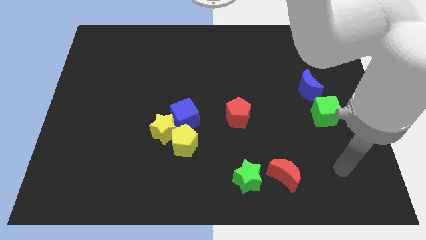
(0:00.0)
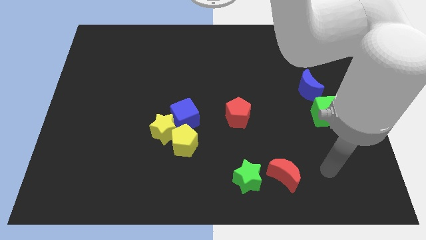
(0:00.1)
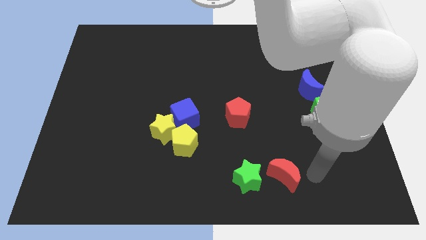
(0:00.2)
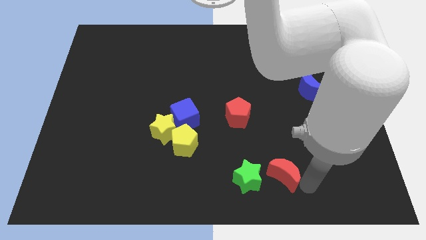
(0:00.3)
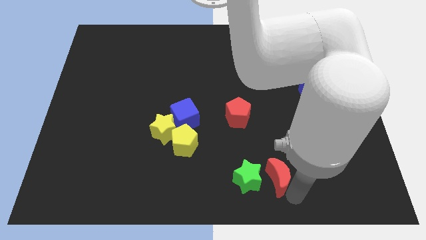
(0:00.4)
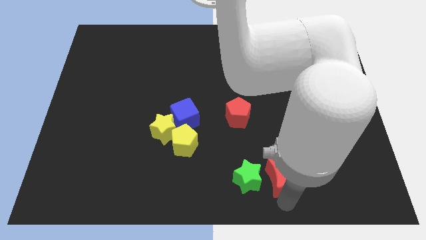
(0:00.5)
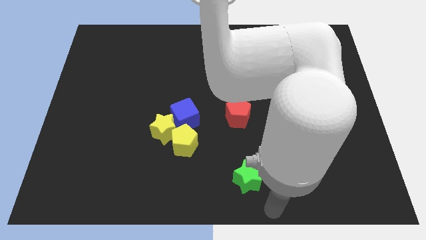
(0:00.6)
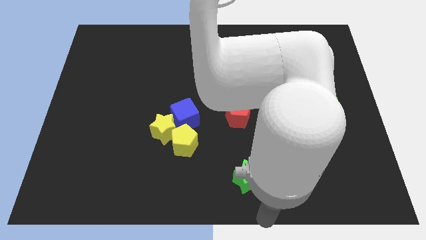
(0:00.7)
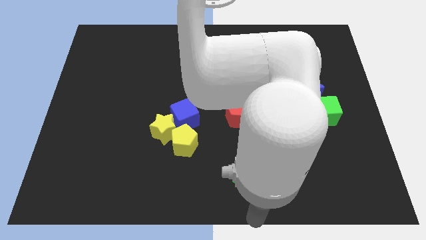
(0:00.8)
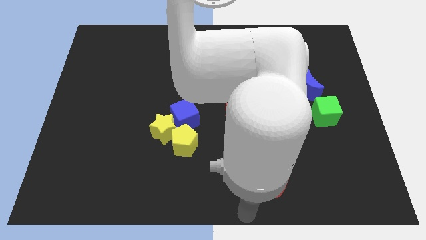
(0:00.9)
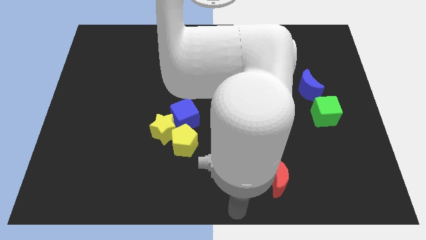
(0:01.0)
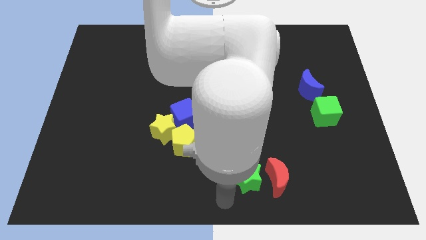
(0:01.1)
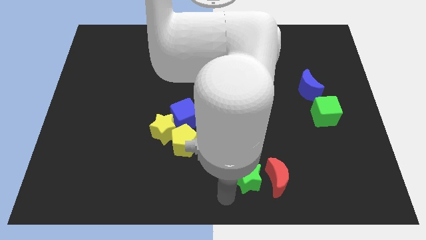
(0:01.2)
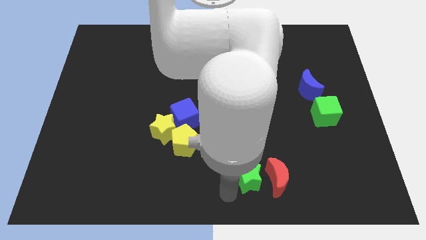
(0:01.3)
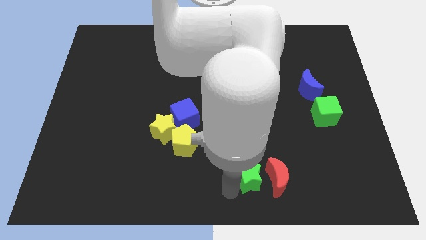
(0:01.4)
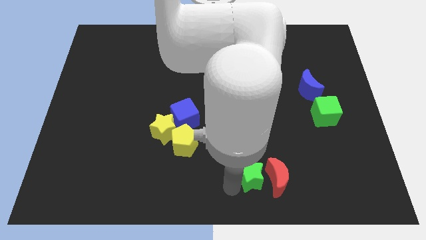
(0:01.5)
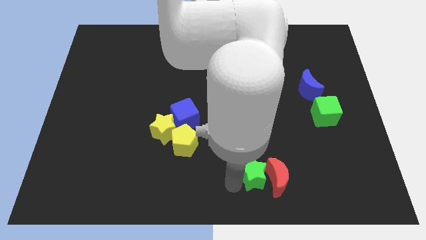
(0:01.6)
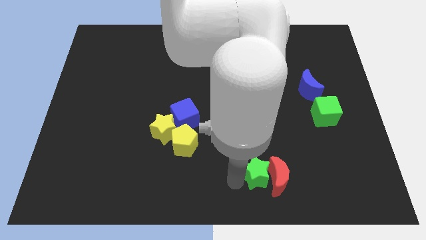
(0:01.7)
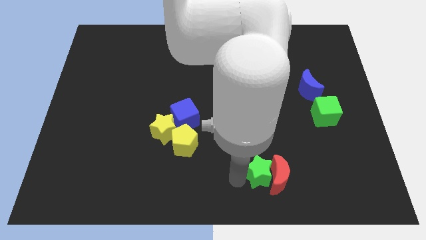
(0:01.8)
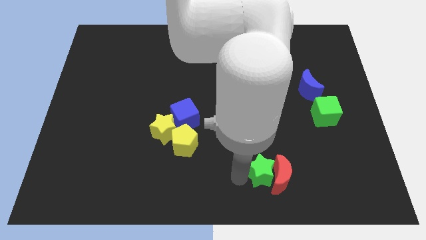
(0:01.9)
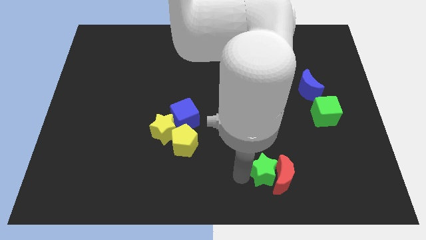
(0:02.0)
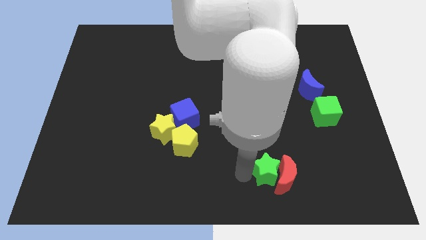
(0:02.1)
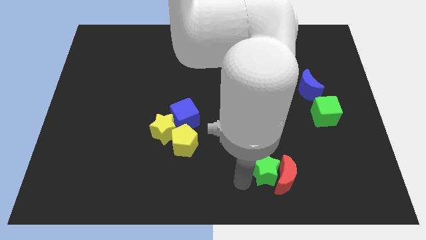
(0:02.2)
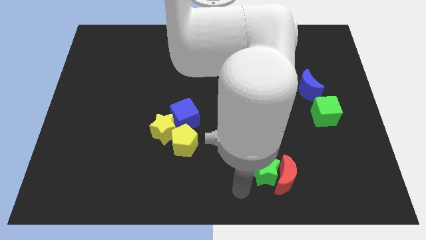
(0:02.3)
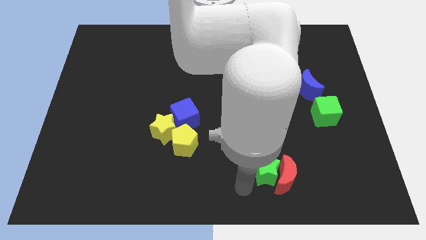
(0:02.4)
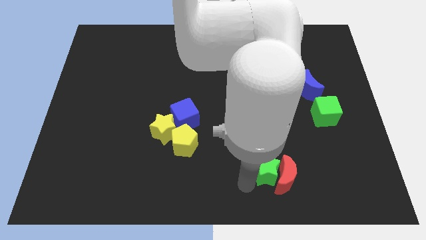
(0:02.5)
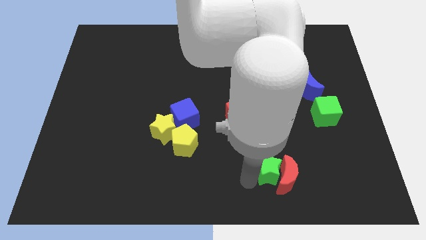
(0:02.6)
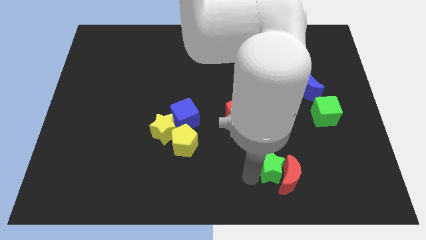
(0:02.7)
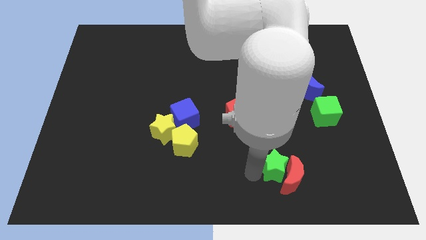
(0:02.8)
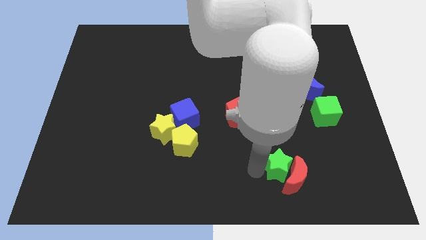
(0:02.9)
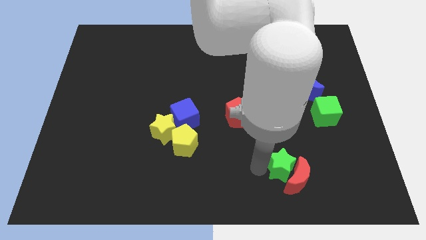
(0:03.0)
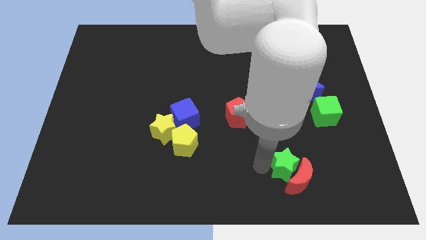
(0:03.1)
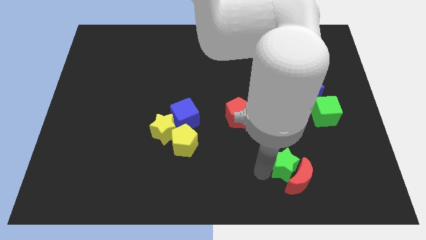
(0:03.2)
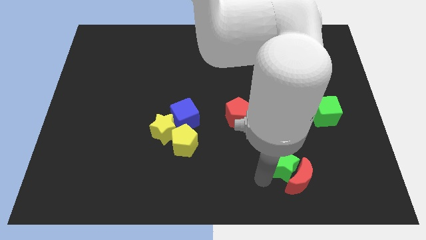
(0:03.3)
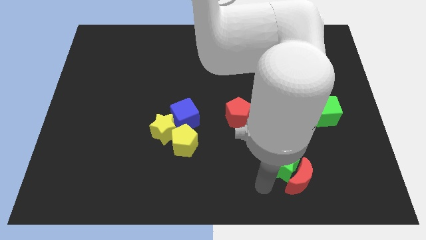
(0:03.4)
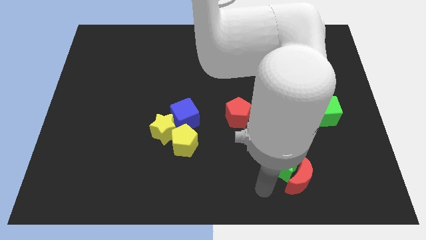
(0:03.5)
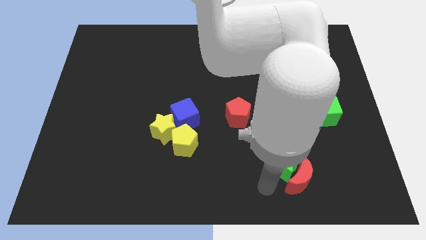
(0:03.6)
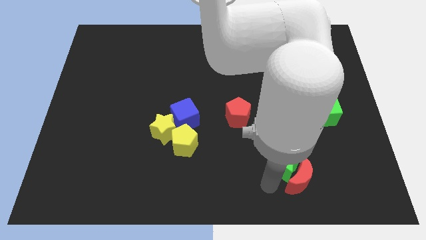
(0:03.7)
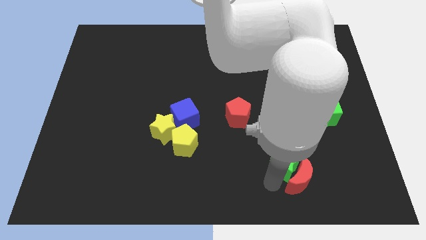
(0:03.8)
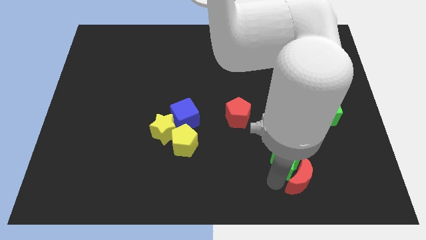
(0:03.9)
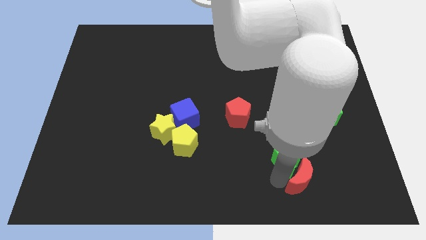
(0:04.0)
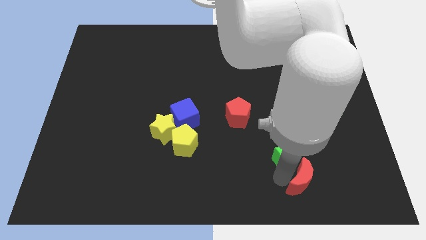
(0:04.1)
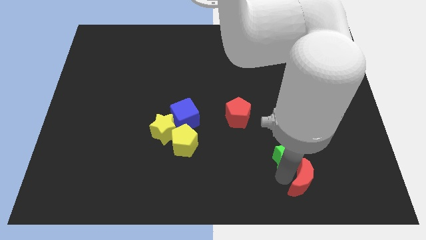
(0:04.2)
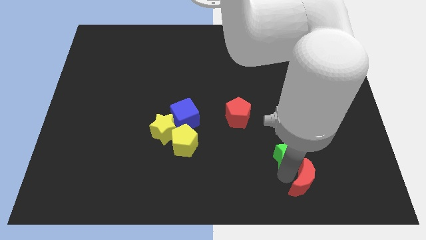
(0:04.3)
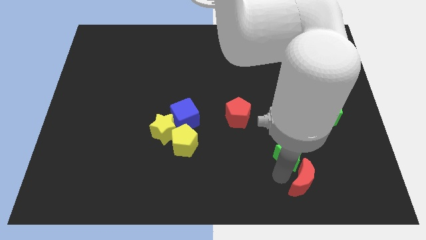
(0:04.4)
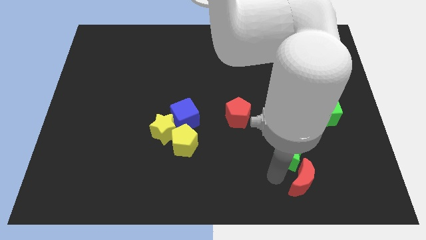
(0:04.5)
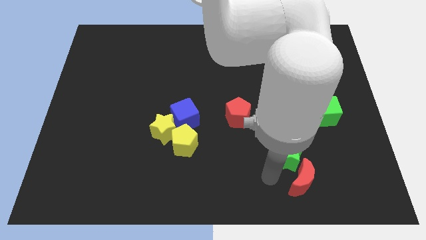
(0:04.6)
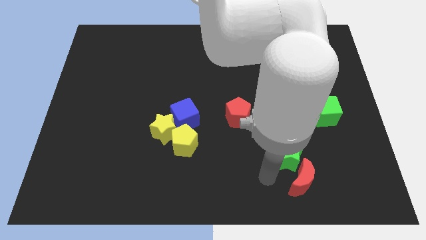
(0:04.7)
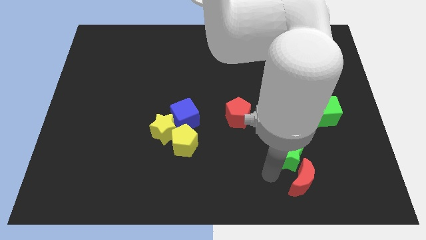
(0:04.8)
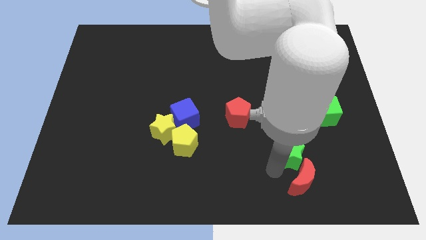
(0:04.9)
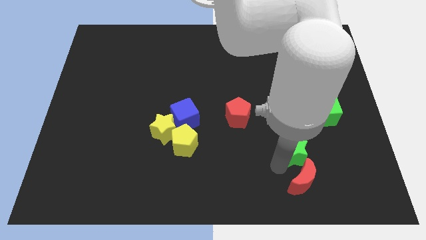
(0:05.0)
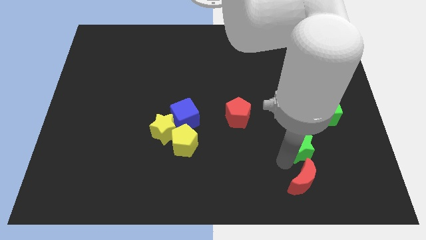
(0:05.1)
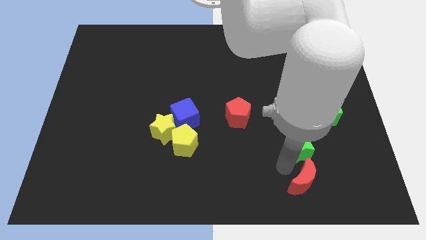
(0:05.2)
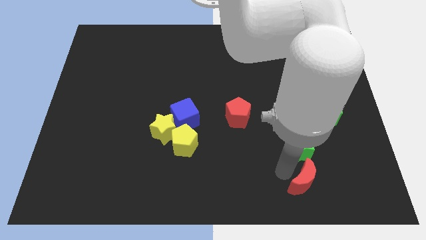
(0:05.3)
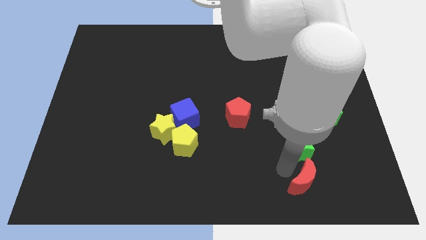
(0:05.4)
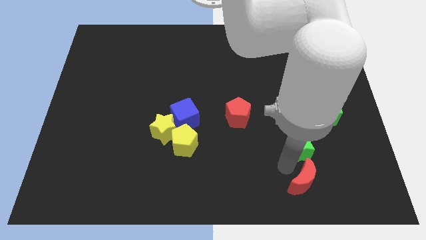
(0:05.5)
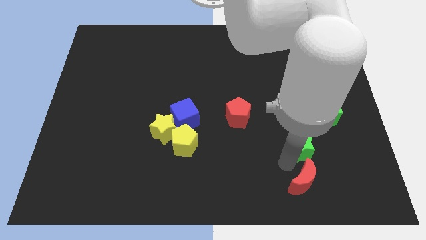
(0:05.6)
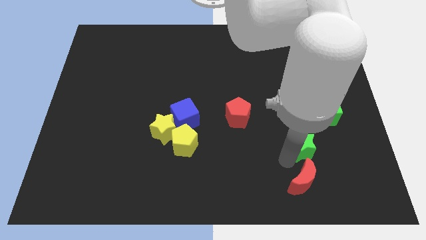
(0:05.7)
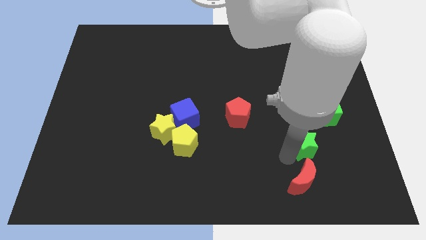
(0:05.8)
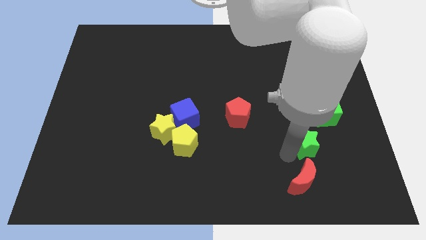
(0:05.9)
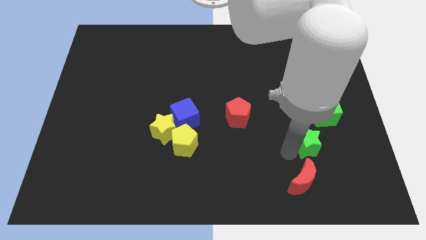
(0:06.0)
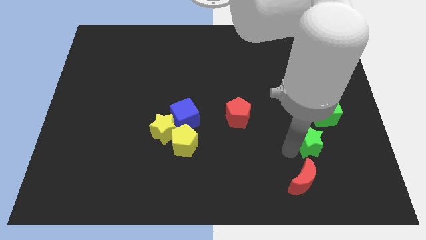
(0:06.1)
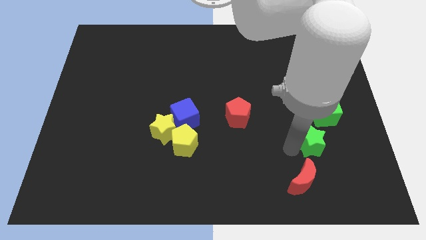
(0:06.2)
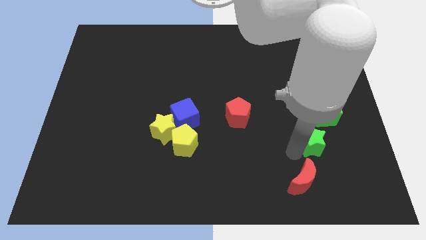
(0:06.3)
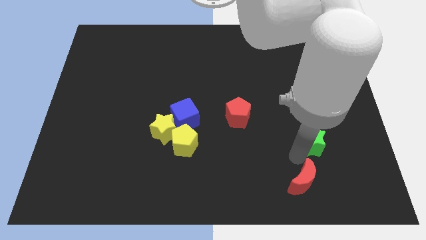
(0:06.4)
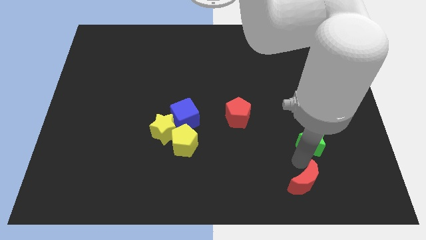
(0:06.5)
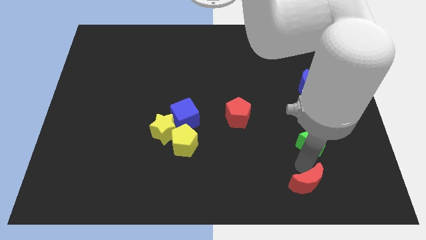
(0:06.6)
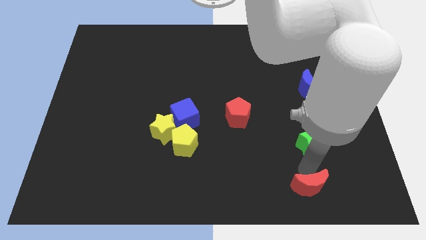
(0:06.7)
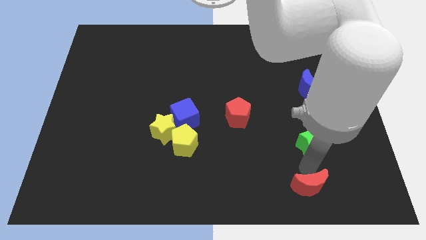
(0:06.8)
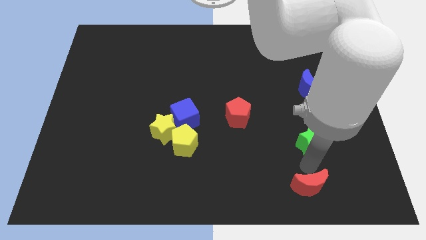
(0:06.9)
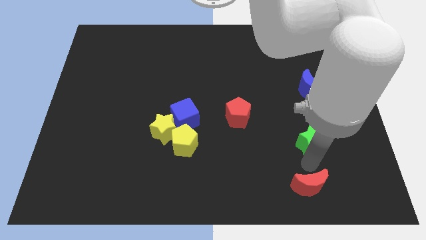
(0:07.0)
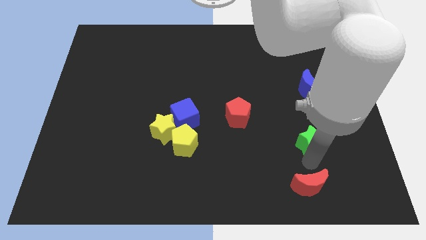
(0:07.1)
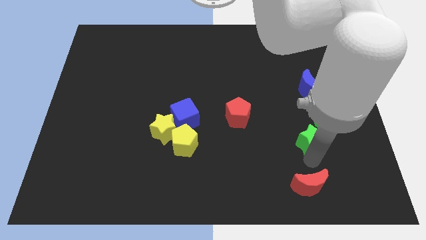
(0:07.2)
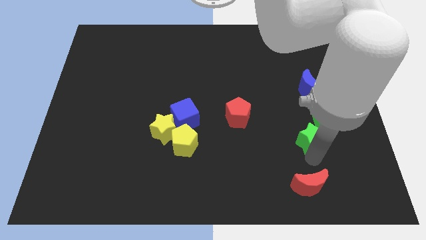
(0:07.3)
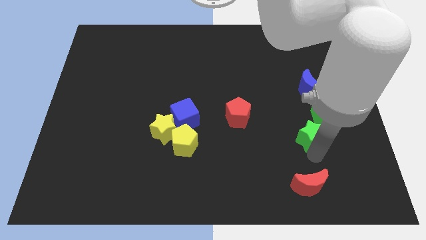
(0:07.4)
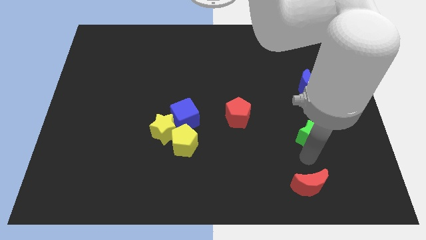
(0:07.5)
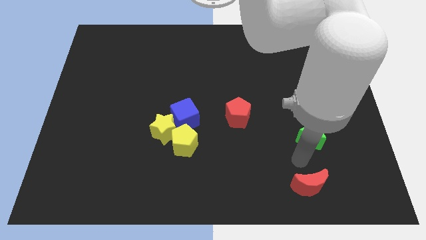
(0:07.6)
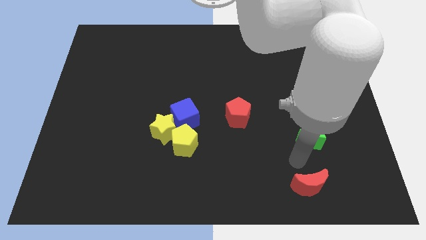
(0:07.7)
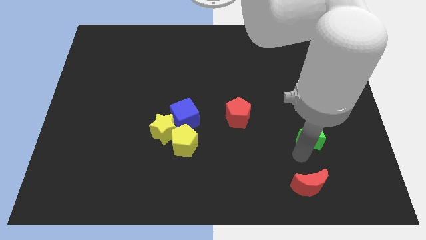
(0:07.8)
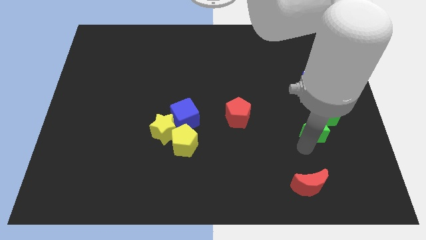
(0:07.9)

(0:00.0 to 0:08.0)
move the green star close to the green cube
